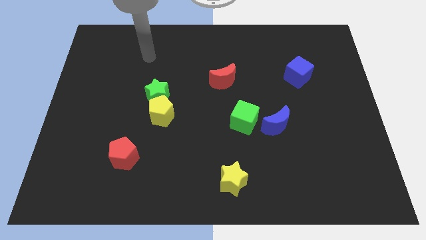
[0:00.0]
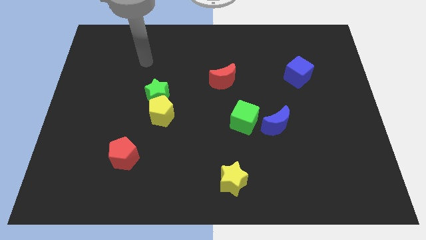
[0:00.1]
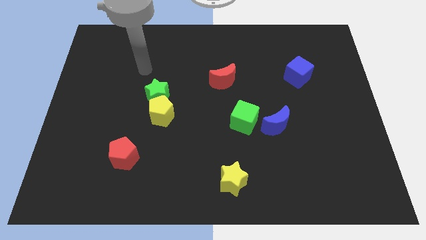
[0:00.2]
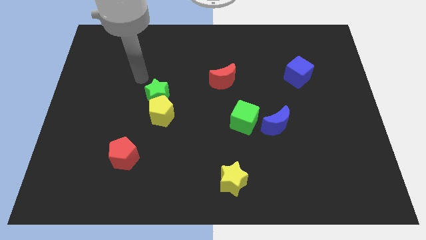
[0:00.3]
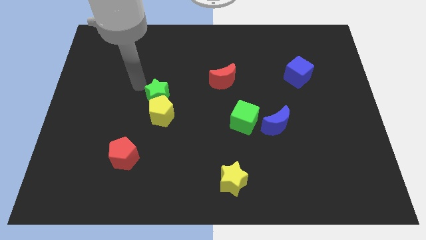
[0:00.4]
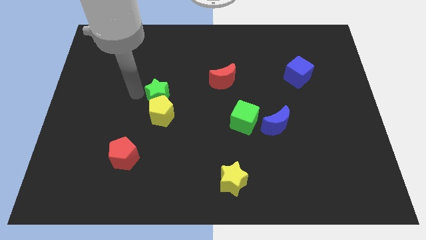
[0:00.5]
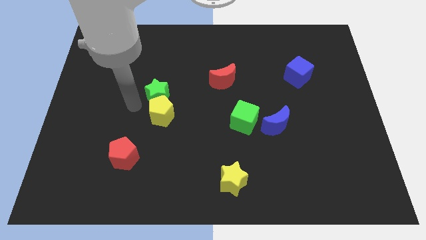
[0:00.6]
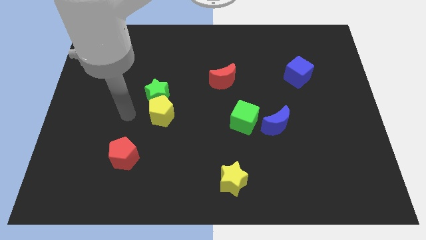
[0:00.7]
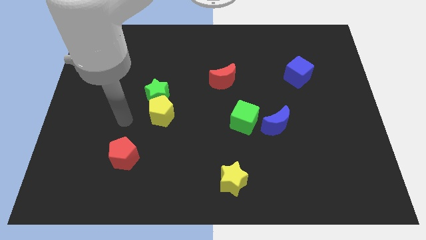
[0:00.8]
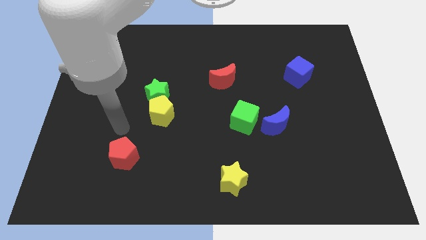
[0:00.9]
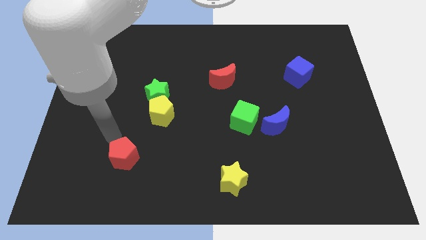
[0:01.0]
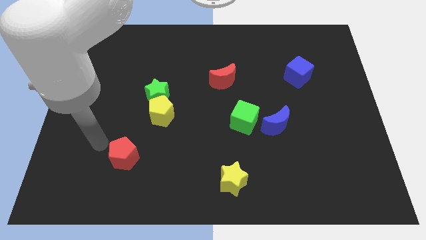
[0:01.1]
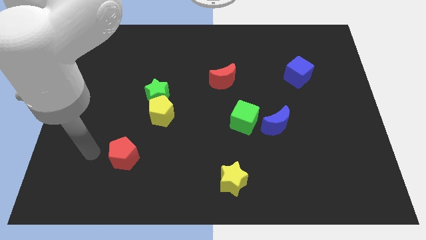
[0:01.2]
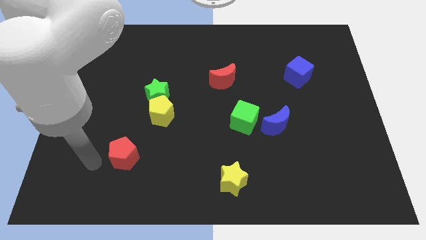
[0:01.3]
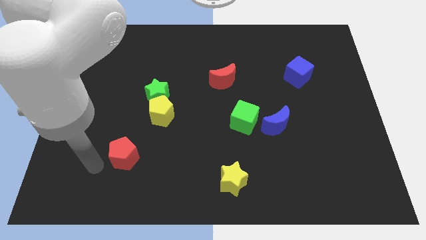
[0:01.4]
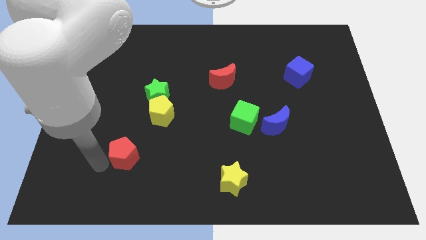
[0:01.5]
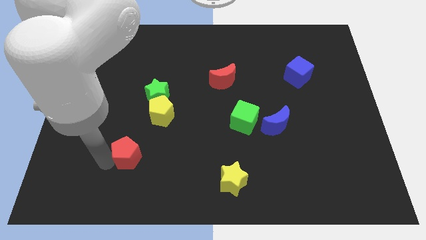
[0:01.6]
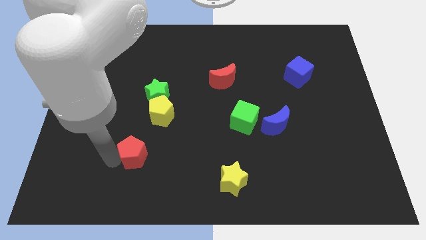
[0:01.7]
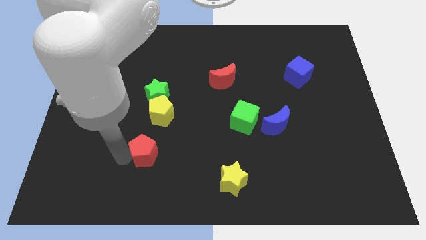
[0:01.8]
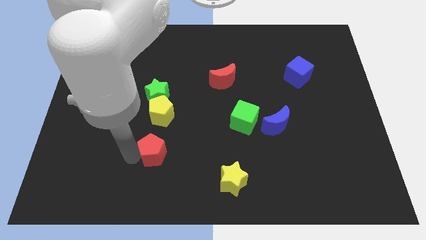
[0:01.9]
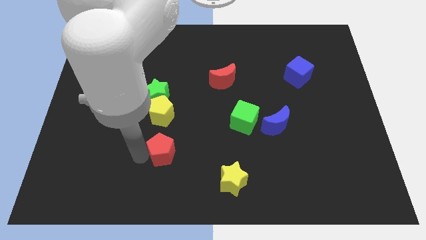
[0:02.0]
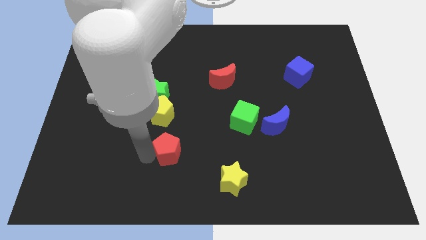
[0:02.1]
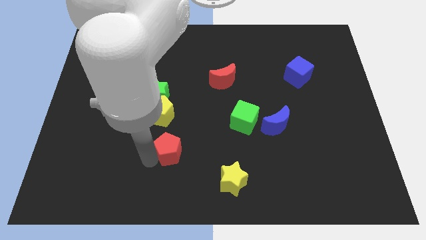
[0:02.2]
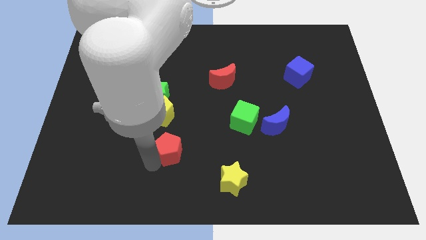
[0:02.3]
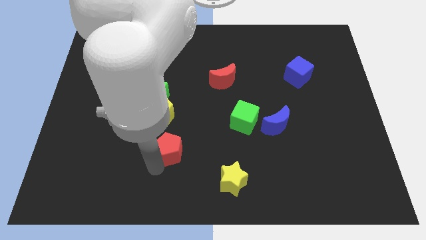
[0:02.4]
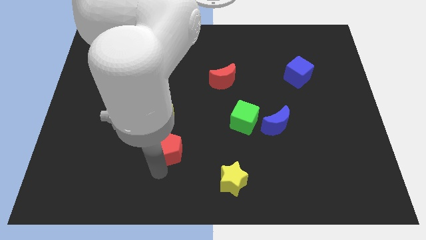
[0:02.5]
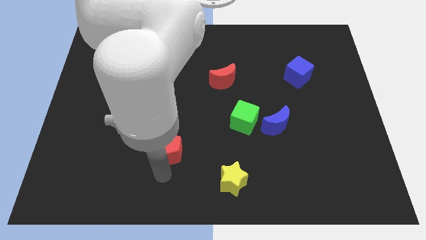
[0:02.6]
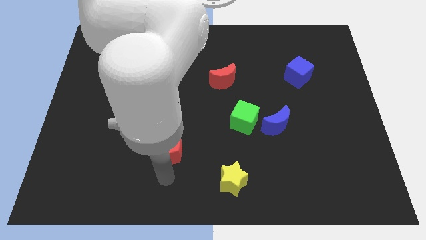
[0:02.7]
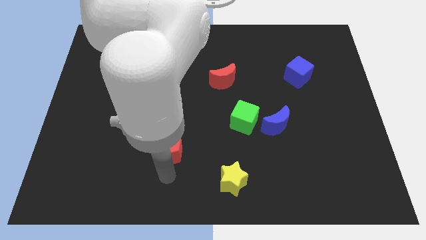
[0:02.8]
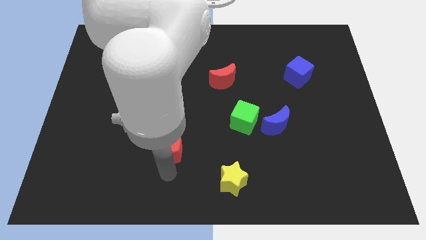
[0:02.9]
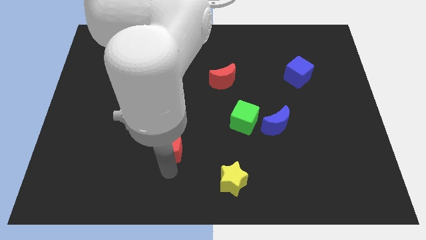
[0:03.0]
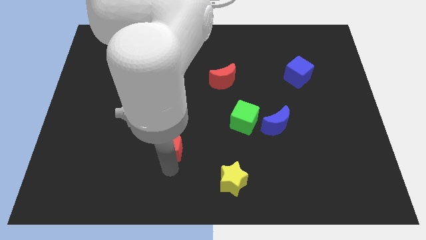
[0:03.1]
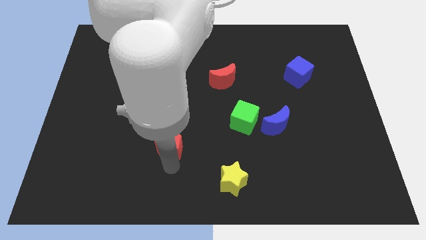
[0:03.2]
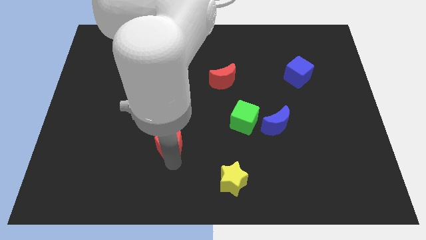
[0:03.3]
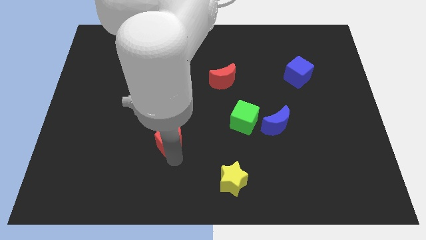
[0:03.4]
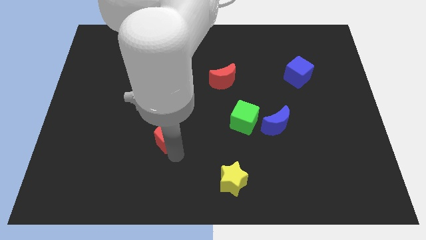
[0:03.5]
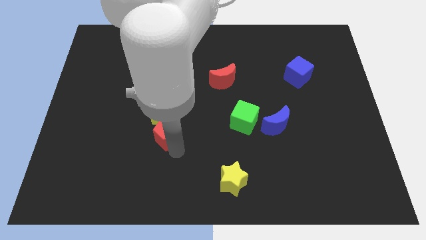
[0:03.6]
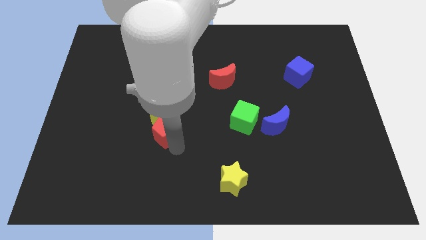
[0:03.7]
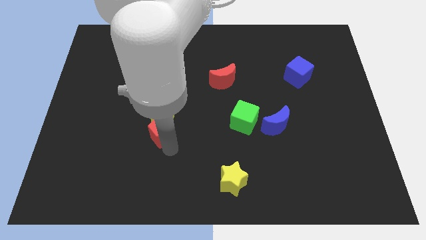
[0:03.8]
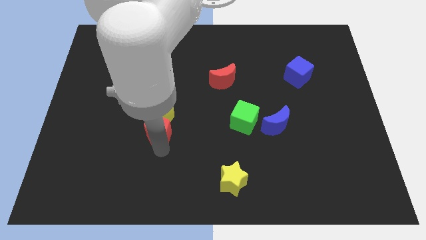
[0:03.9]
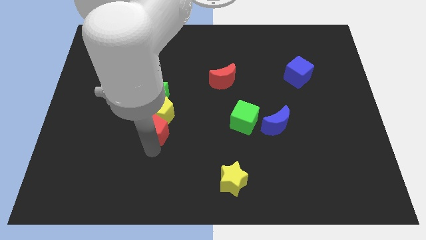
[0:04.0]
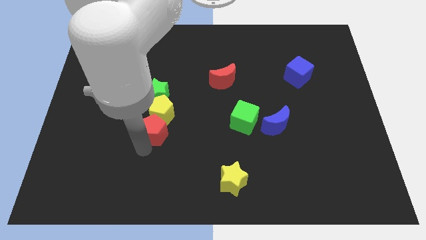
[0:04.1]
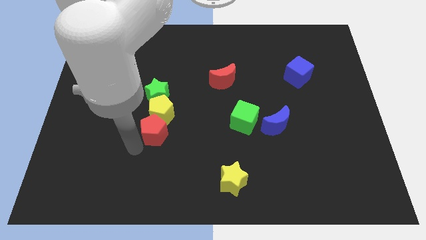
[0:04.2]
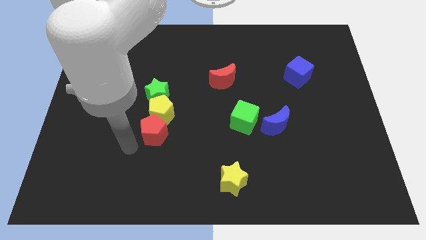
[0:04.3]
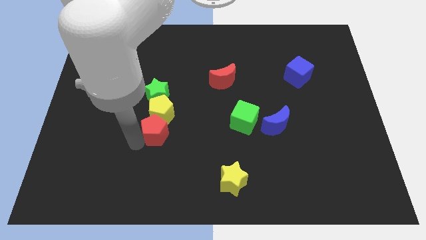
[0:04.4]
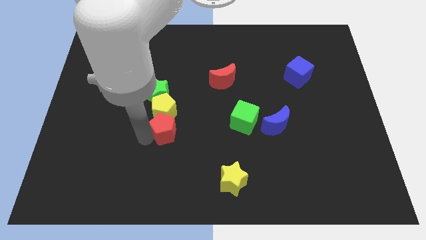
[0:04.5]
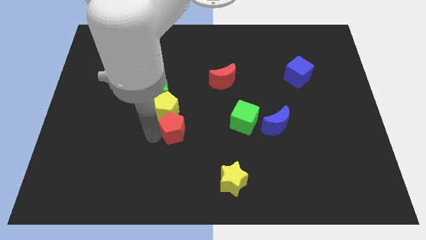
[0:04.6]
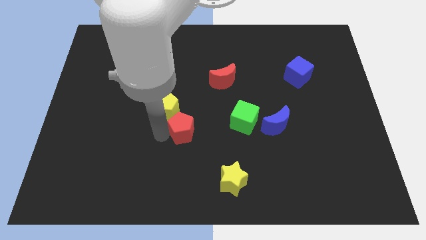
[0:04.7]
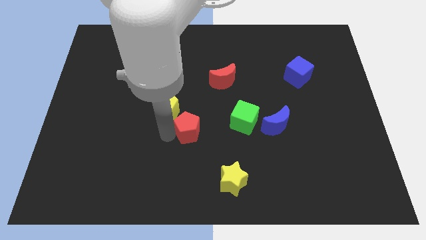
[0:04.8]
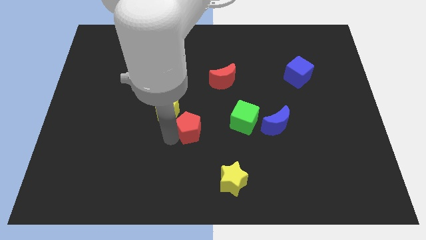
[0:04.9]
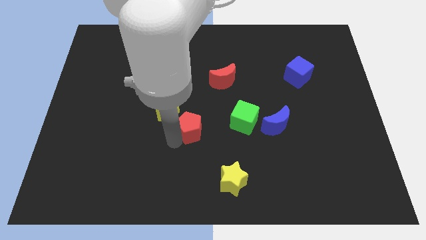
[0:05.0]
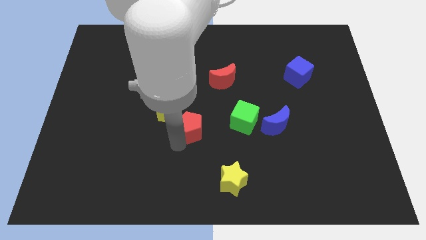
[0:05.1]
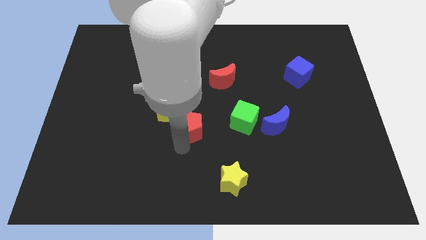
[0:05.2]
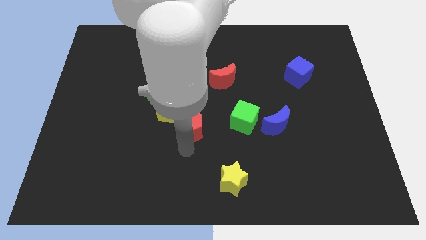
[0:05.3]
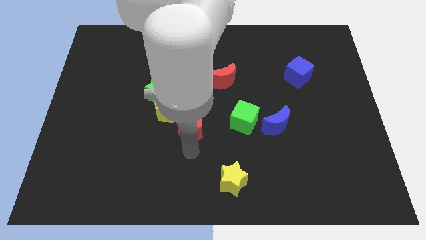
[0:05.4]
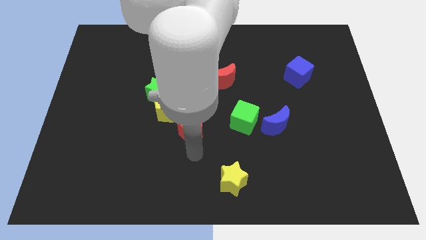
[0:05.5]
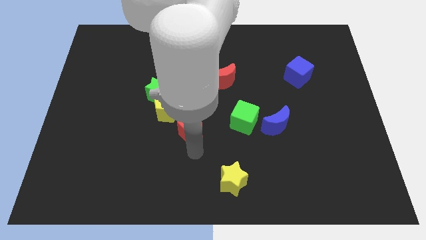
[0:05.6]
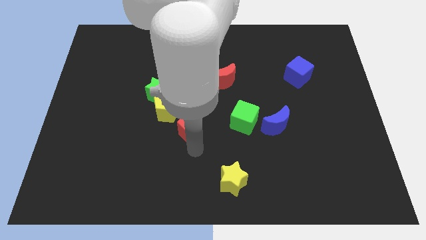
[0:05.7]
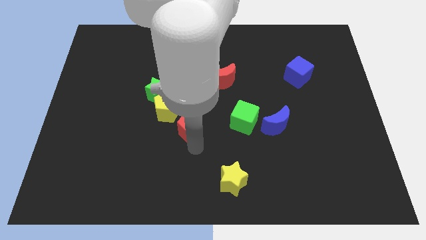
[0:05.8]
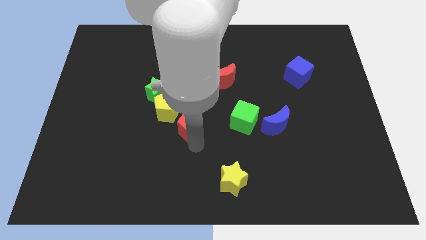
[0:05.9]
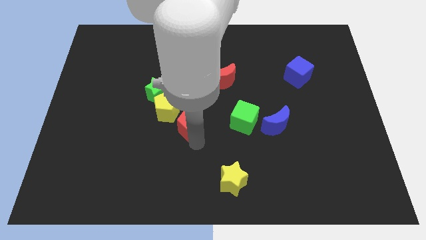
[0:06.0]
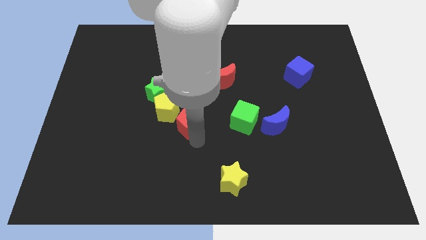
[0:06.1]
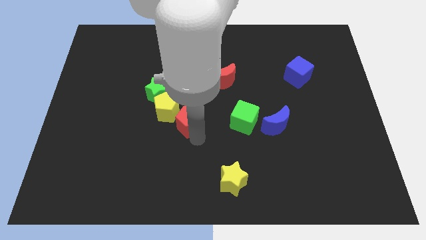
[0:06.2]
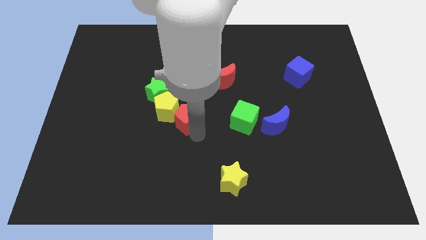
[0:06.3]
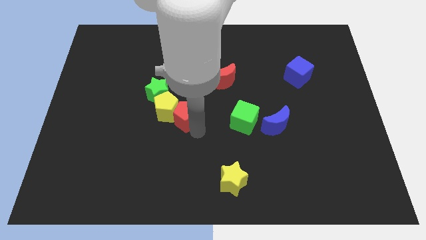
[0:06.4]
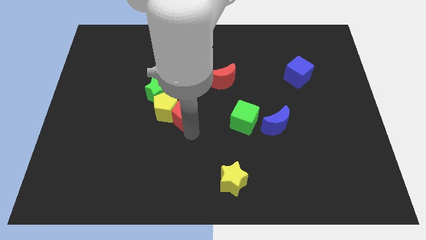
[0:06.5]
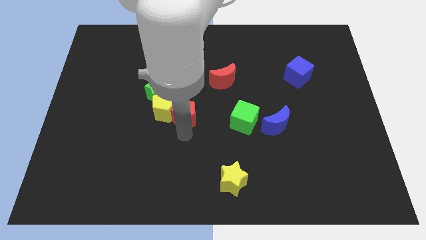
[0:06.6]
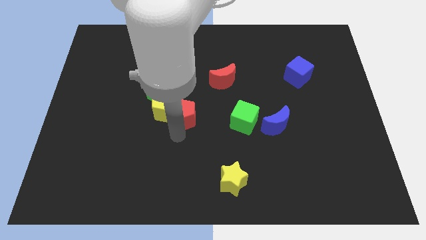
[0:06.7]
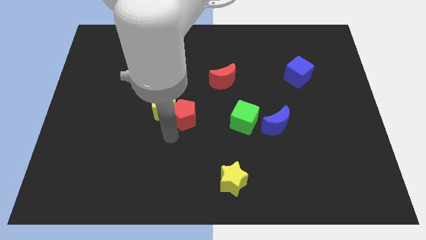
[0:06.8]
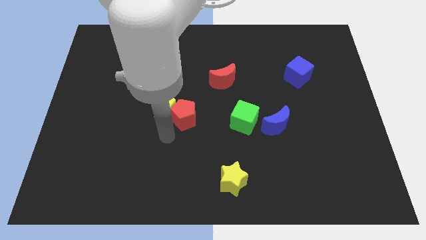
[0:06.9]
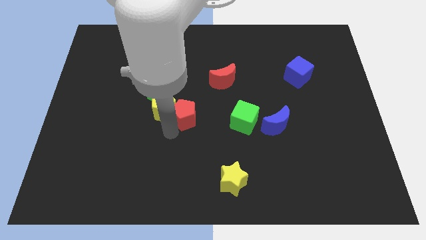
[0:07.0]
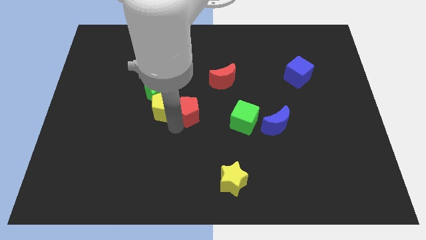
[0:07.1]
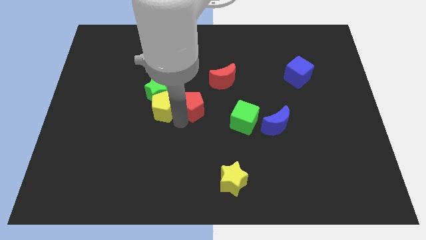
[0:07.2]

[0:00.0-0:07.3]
put the red pentagon diagonally down and to the left of the red moon
